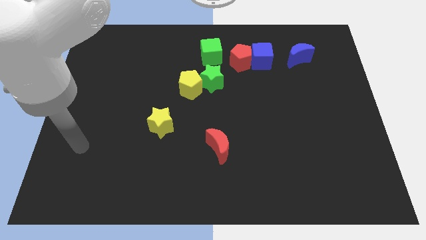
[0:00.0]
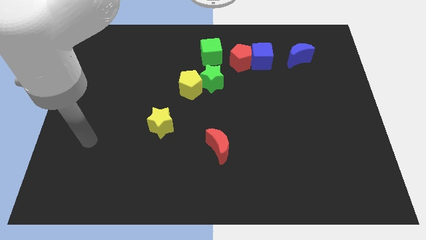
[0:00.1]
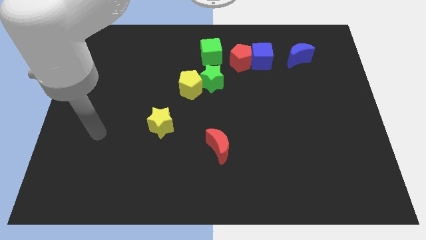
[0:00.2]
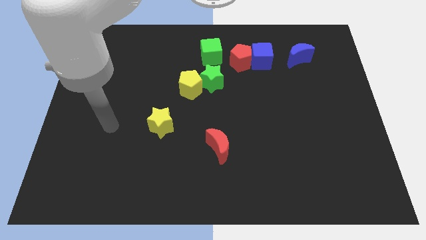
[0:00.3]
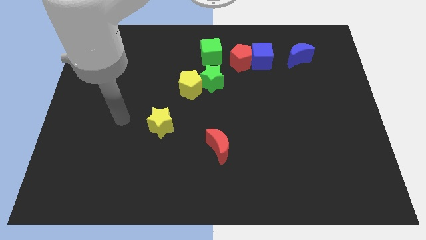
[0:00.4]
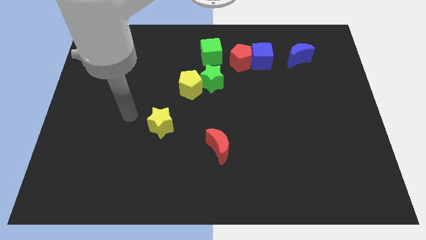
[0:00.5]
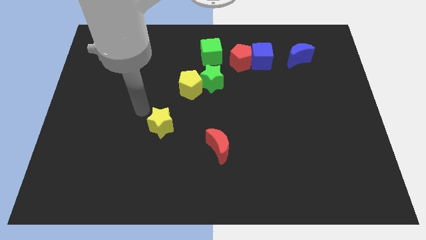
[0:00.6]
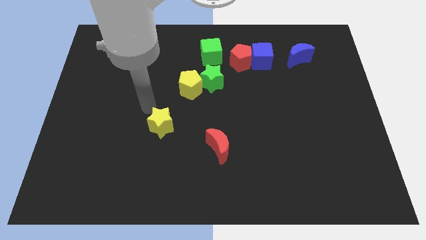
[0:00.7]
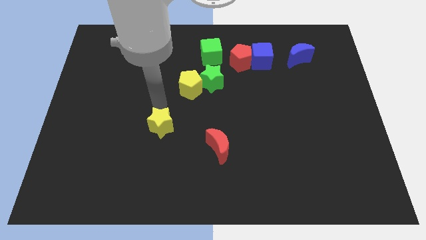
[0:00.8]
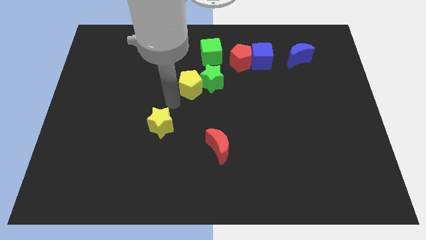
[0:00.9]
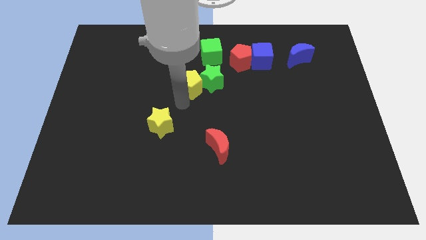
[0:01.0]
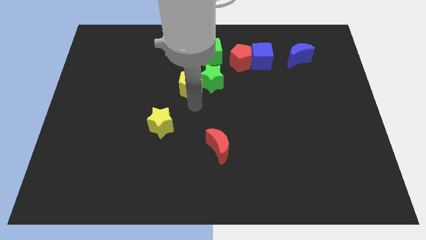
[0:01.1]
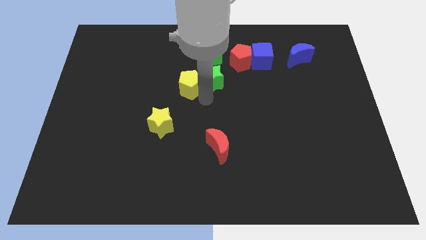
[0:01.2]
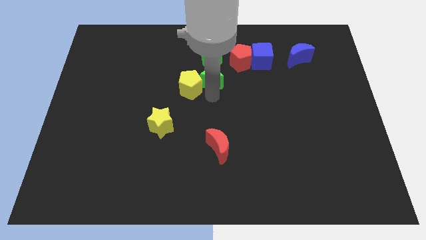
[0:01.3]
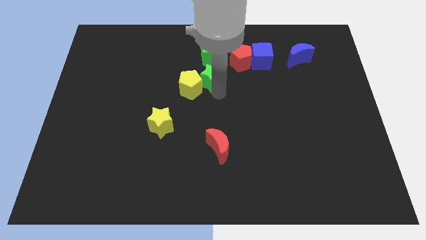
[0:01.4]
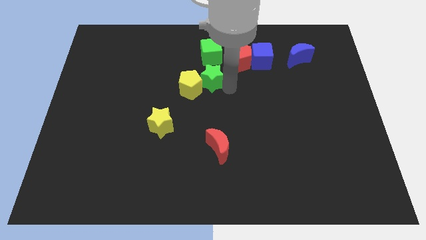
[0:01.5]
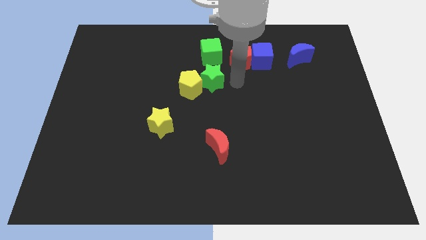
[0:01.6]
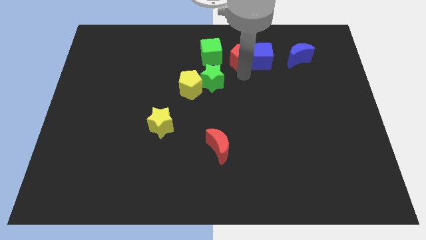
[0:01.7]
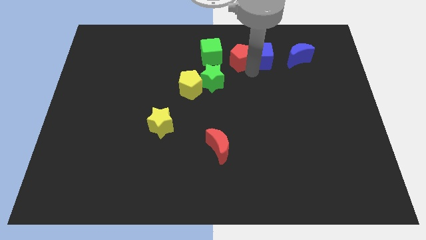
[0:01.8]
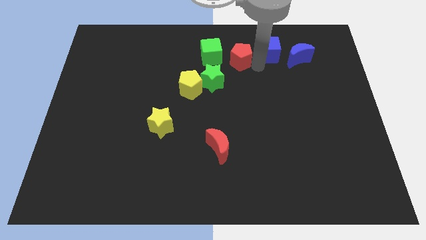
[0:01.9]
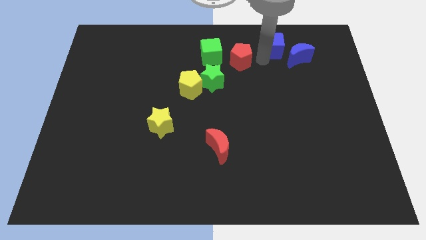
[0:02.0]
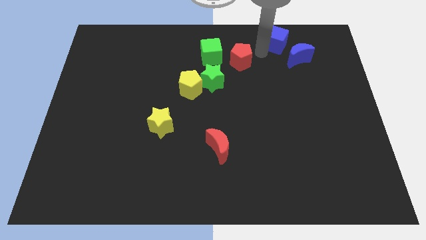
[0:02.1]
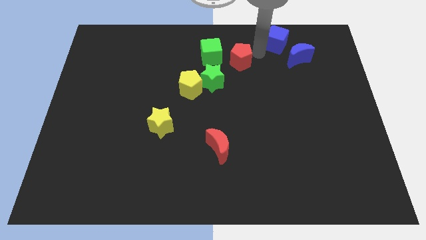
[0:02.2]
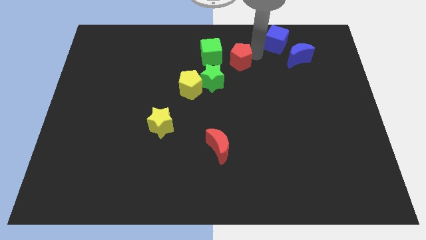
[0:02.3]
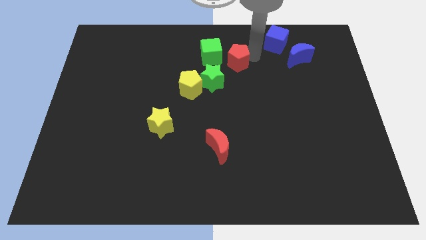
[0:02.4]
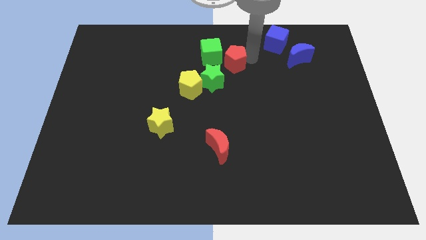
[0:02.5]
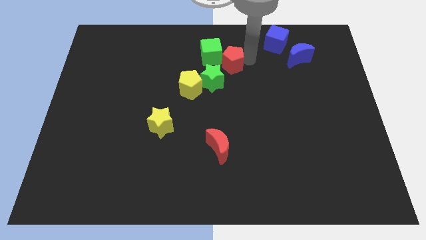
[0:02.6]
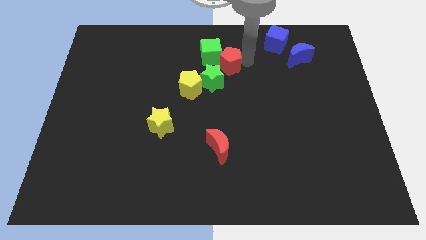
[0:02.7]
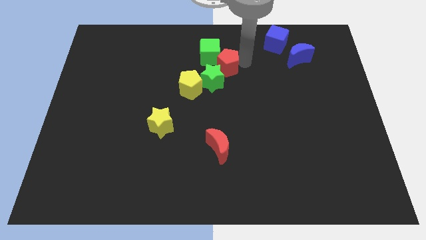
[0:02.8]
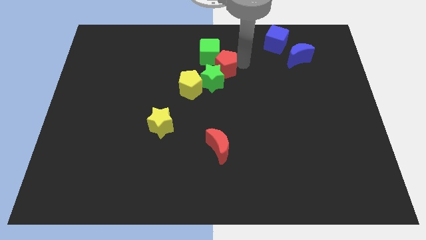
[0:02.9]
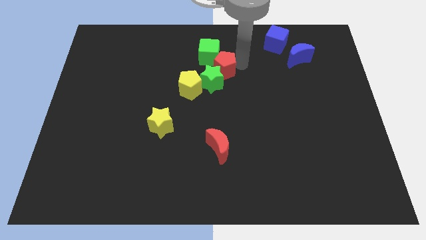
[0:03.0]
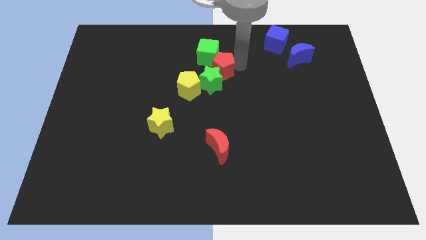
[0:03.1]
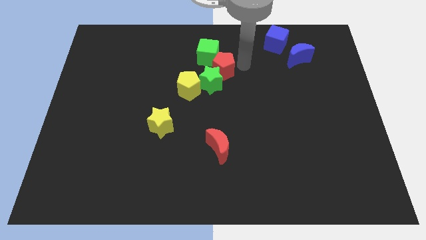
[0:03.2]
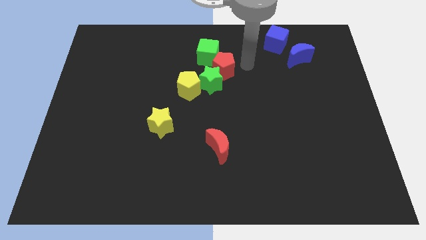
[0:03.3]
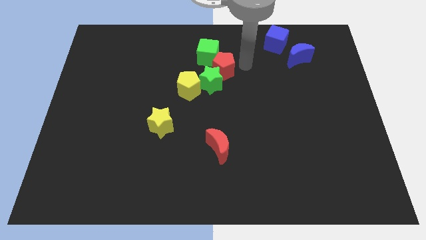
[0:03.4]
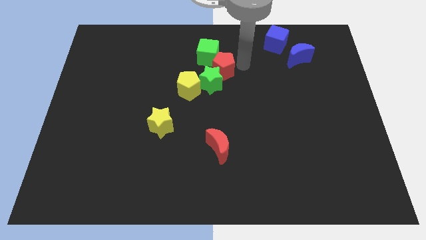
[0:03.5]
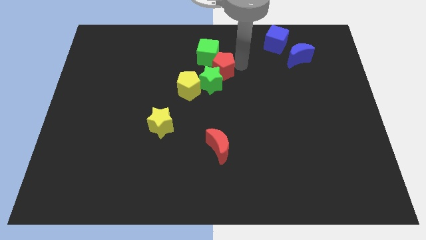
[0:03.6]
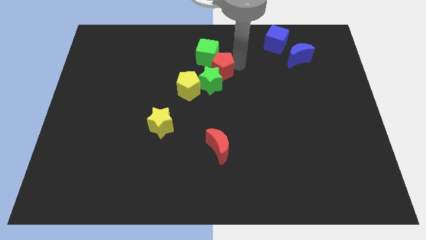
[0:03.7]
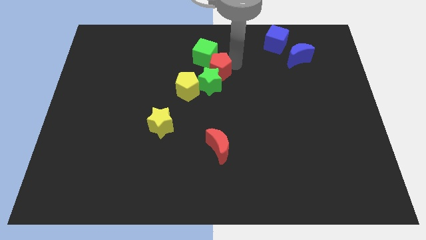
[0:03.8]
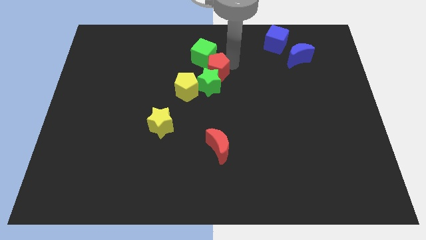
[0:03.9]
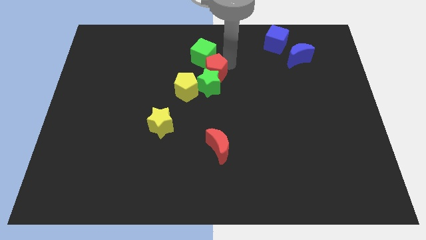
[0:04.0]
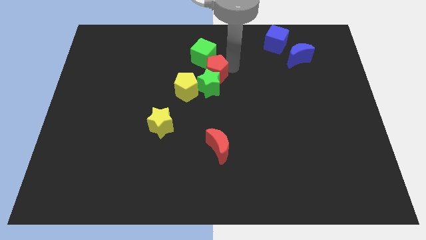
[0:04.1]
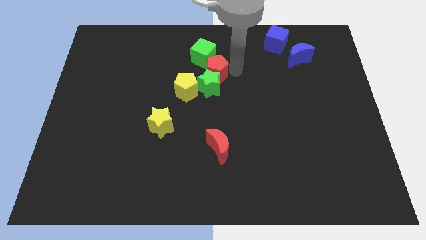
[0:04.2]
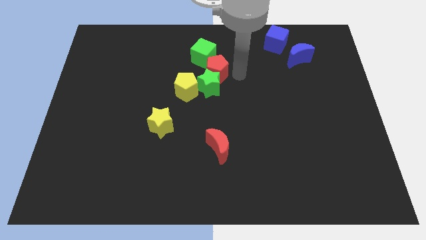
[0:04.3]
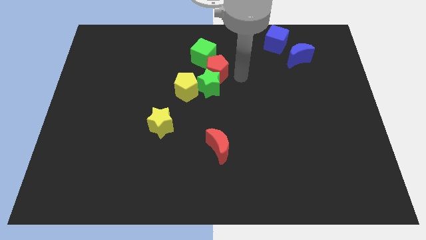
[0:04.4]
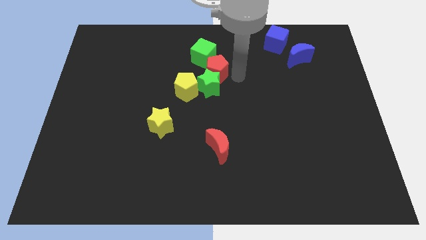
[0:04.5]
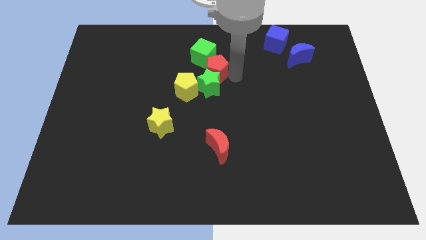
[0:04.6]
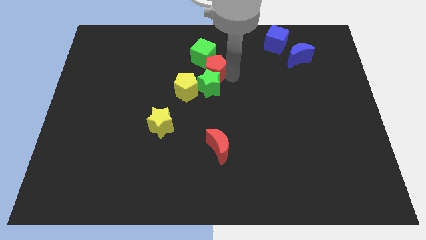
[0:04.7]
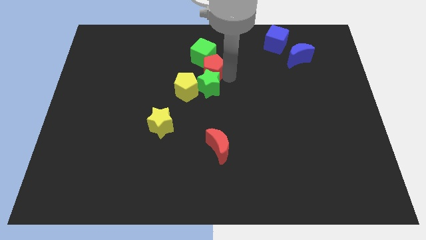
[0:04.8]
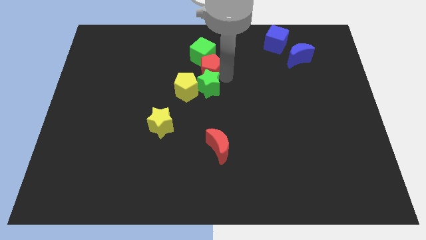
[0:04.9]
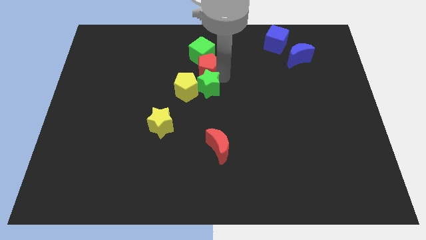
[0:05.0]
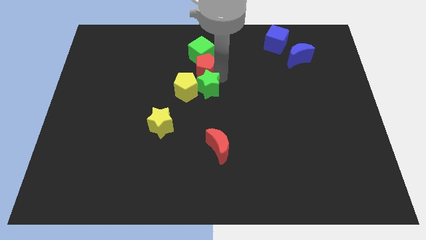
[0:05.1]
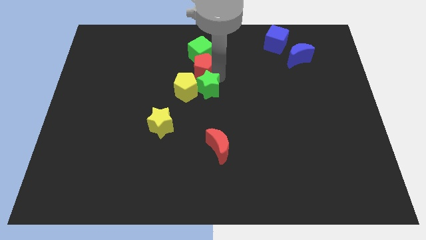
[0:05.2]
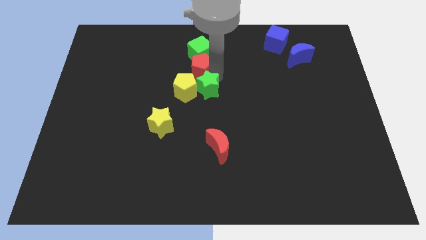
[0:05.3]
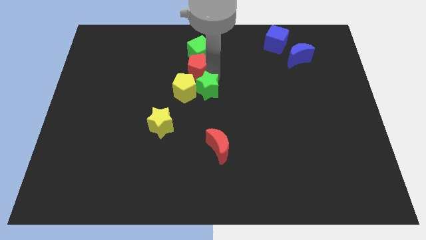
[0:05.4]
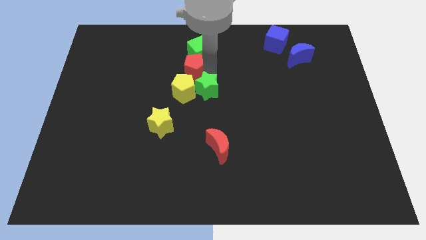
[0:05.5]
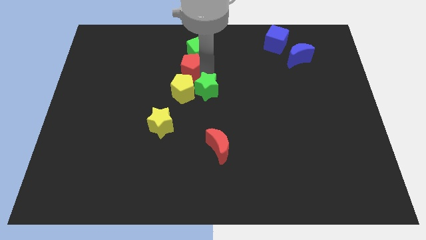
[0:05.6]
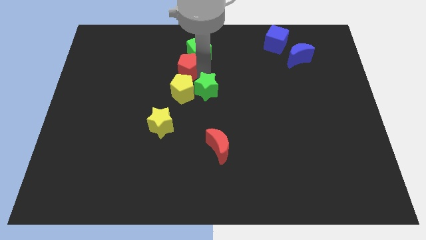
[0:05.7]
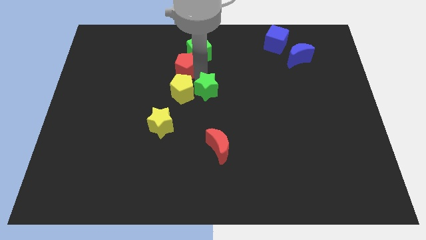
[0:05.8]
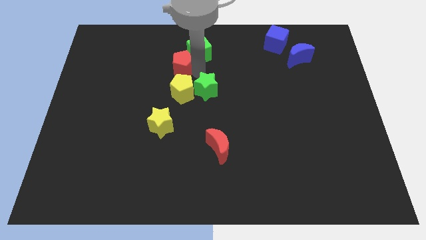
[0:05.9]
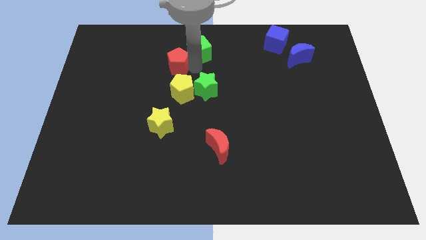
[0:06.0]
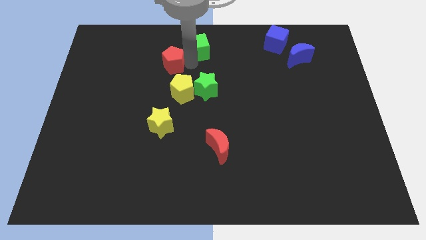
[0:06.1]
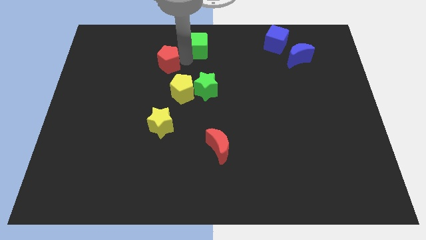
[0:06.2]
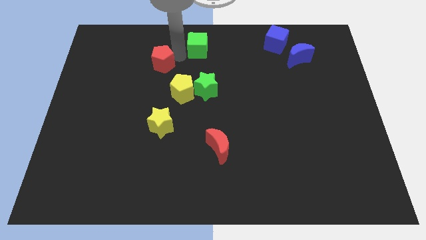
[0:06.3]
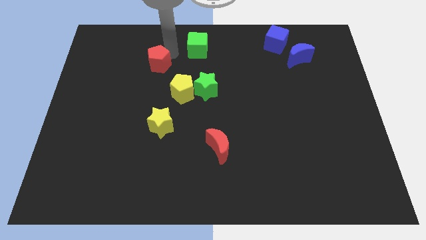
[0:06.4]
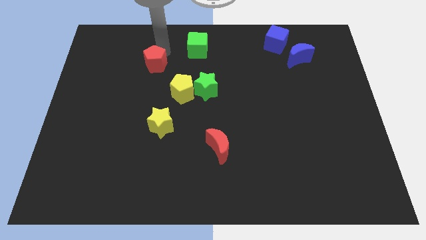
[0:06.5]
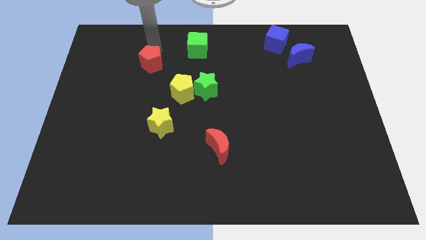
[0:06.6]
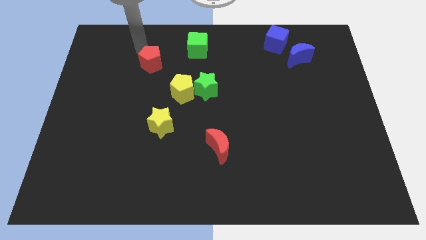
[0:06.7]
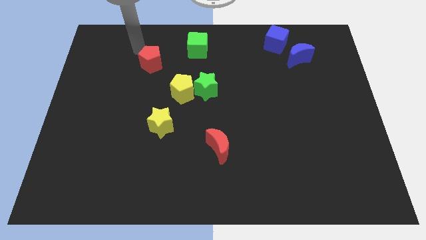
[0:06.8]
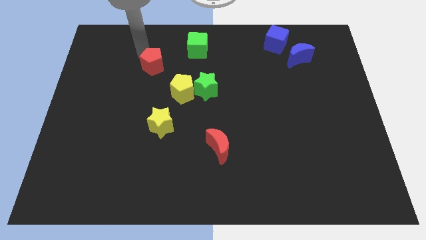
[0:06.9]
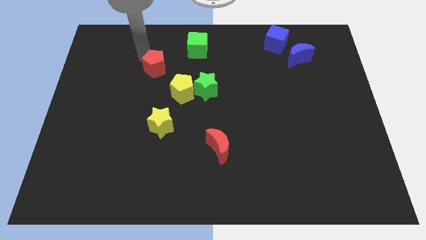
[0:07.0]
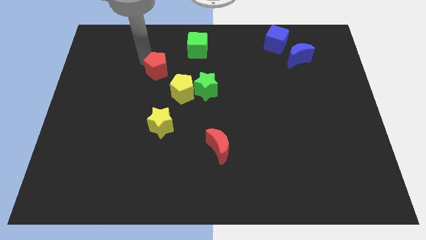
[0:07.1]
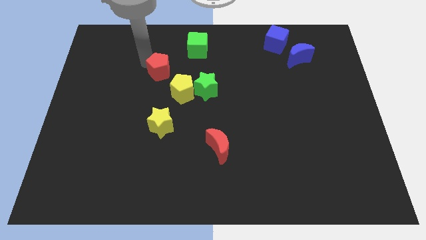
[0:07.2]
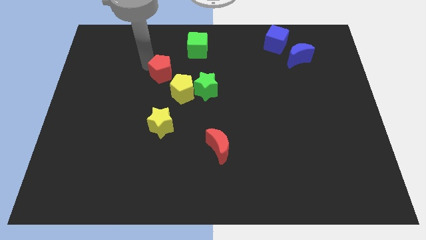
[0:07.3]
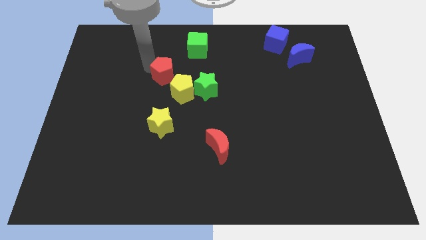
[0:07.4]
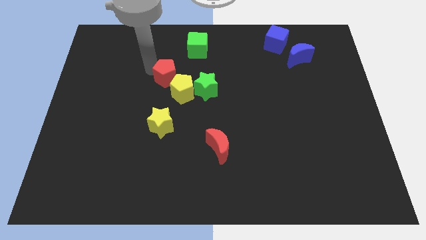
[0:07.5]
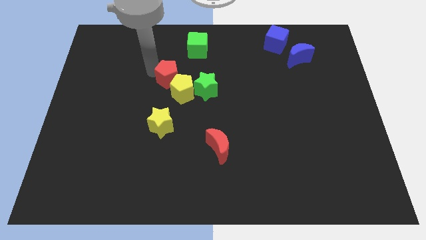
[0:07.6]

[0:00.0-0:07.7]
put the red pentagon close to the yellow pentagon
